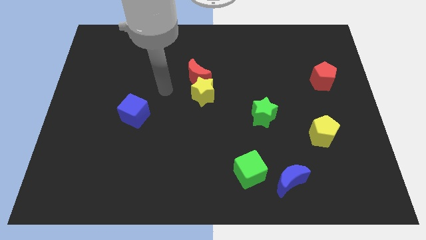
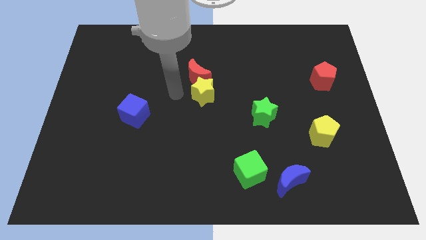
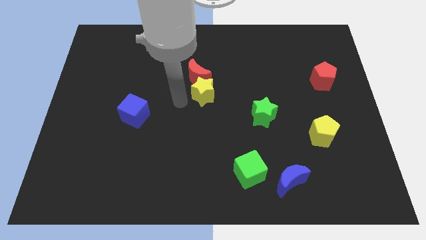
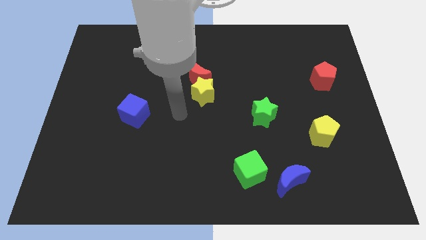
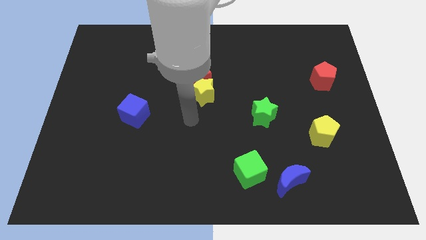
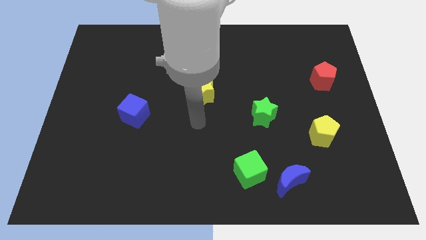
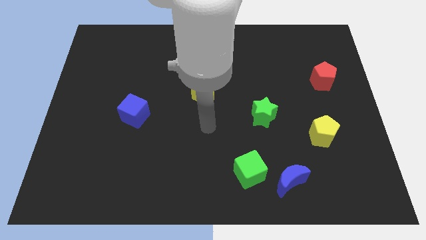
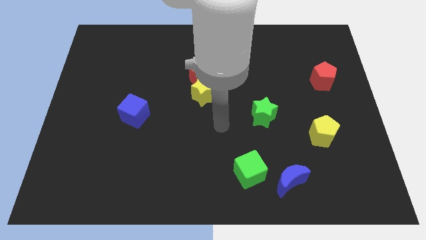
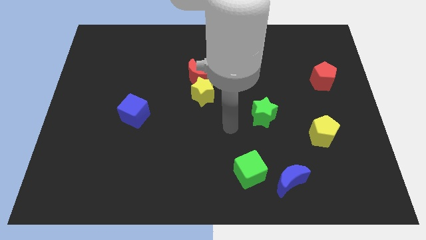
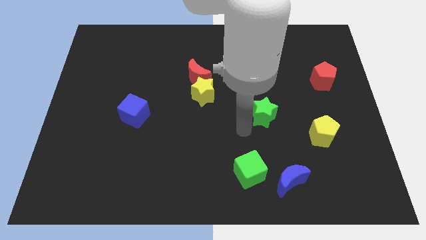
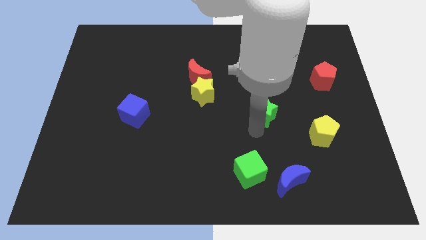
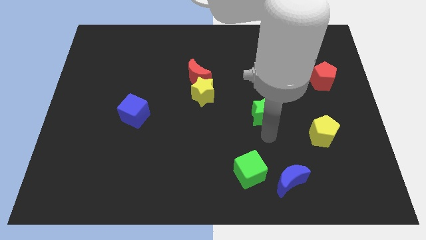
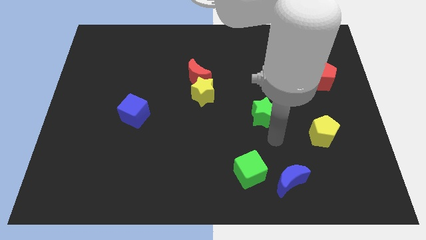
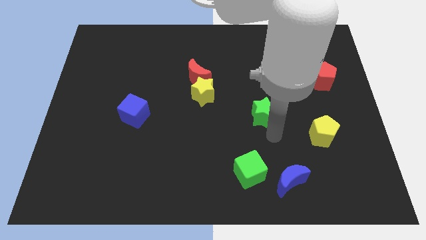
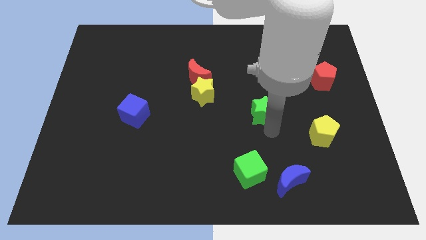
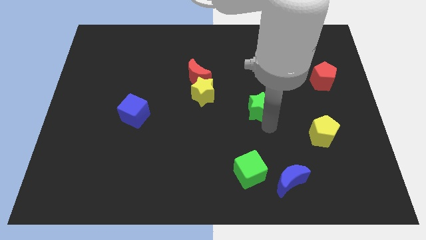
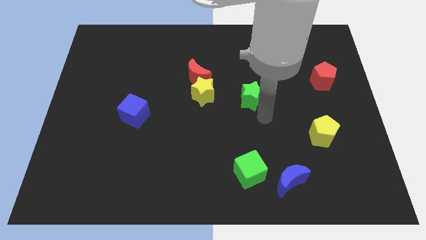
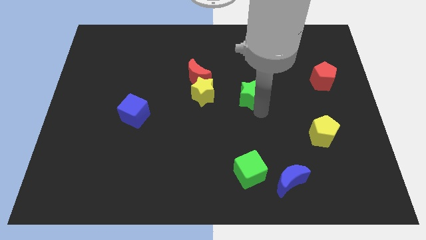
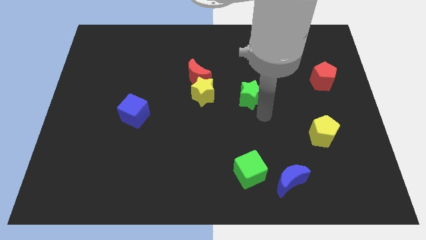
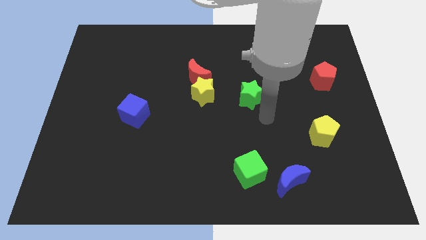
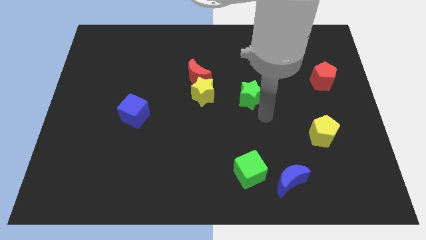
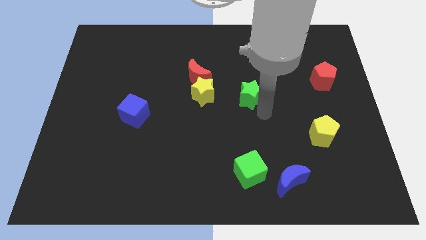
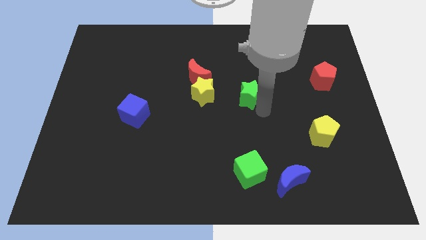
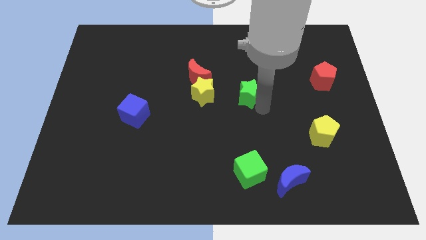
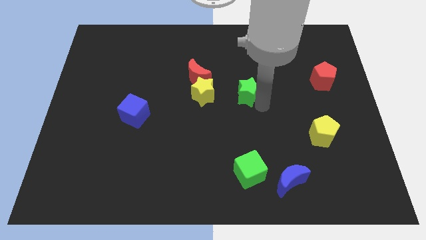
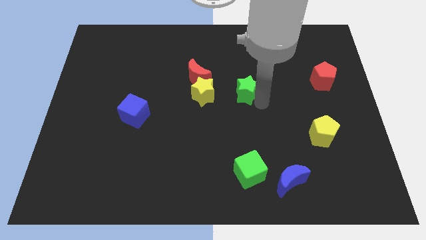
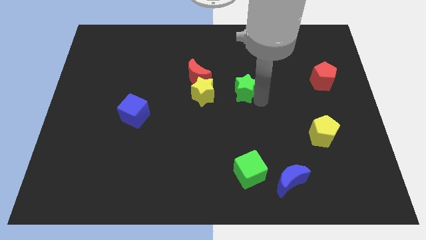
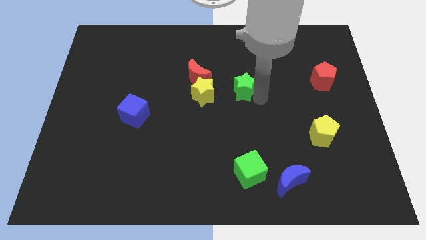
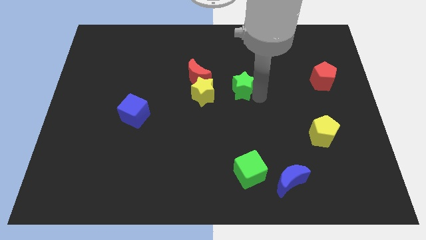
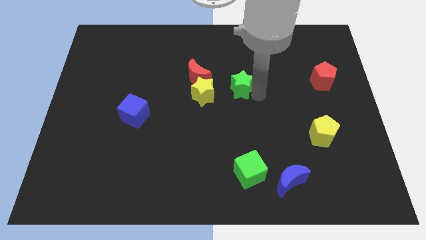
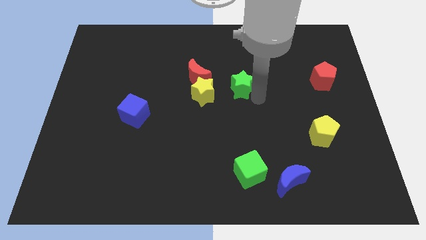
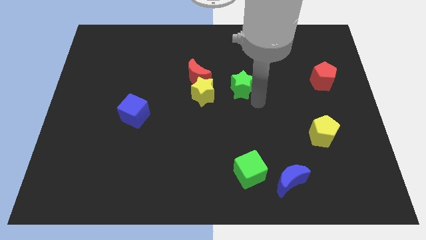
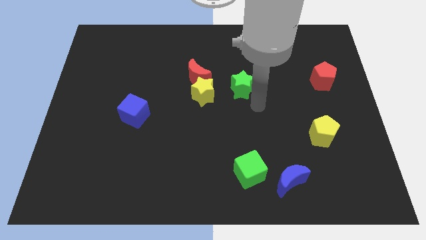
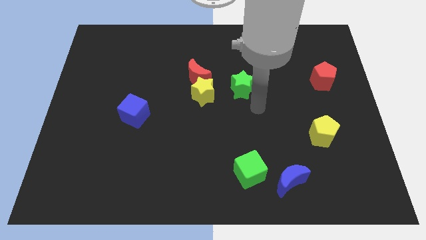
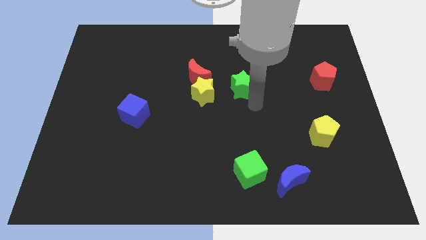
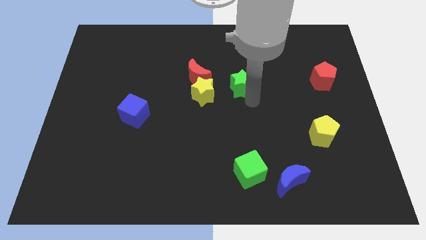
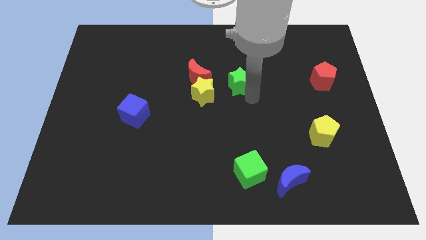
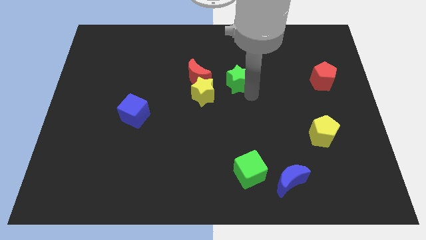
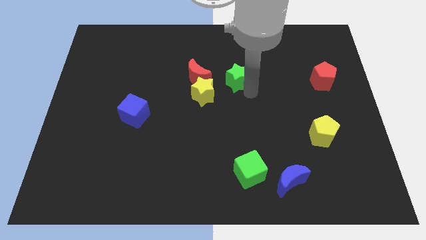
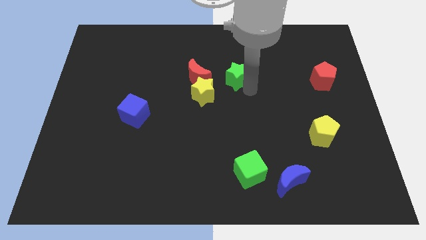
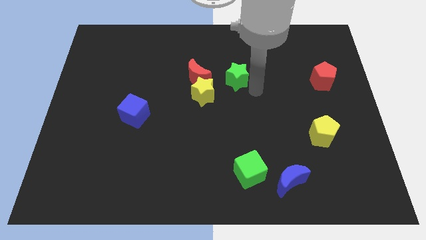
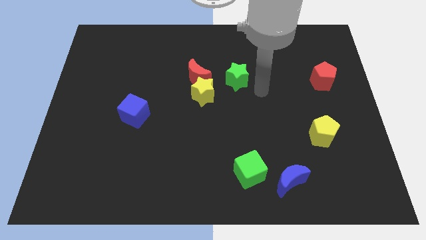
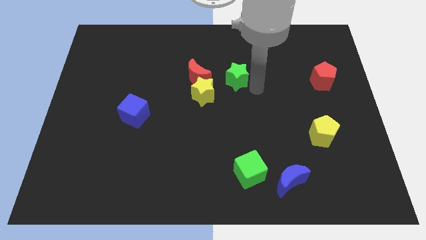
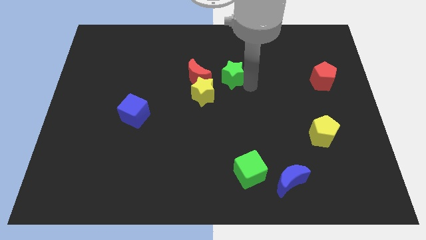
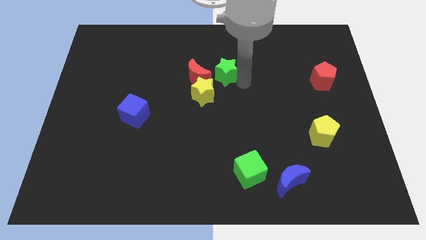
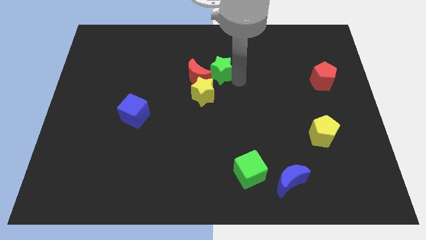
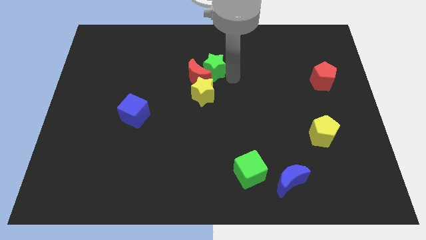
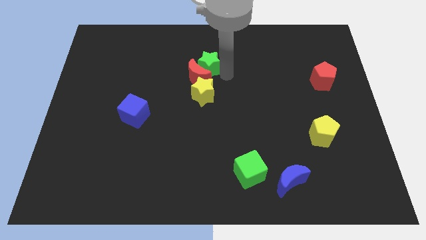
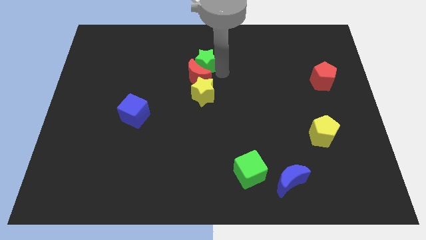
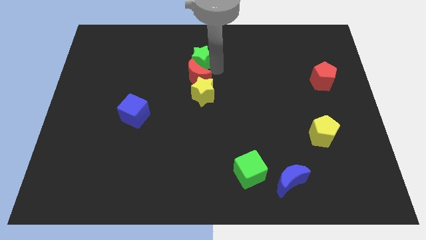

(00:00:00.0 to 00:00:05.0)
put the green star to the top left side of the red moon

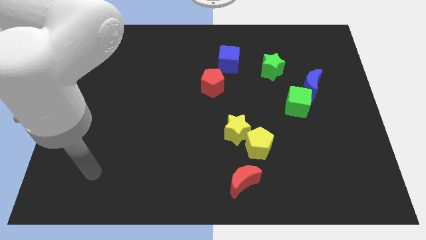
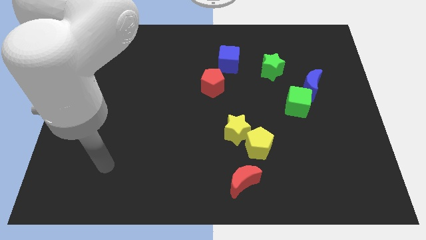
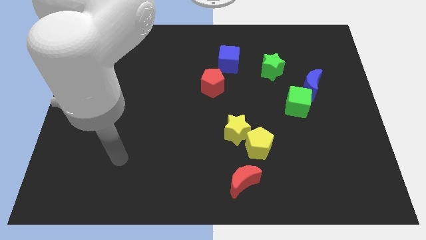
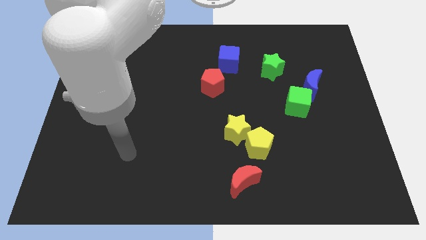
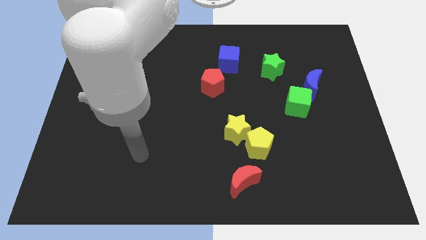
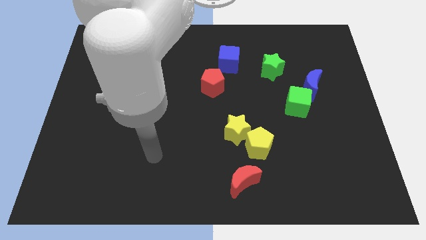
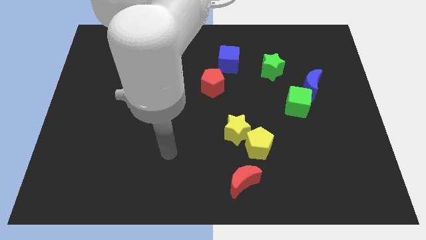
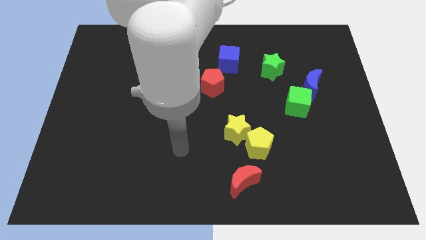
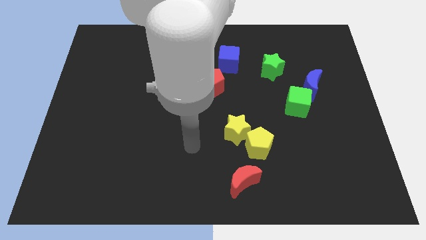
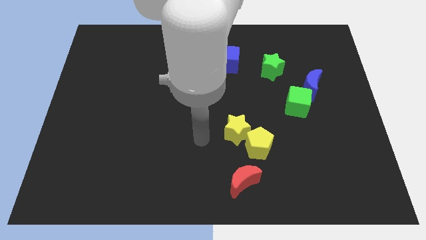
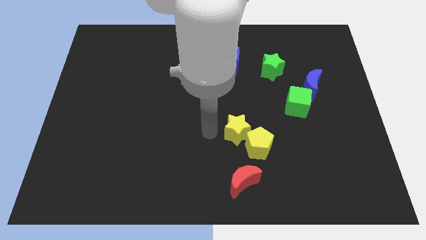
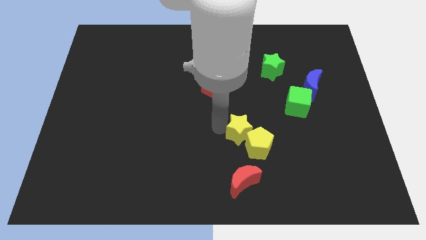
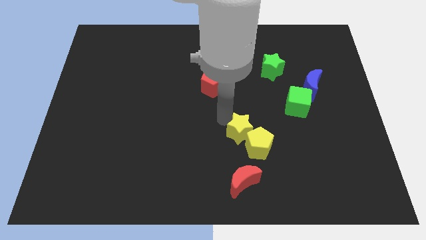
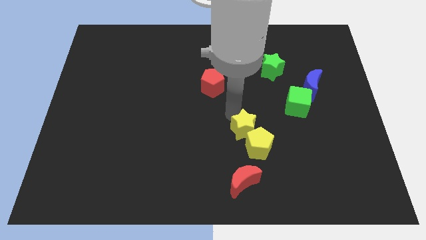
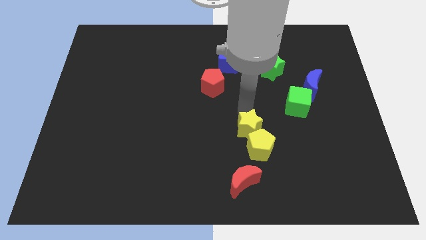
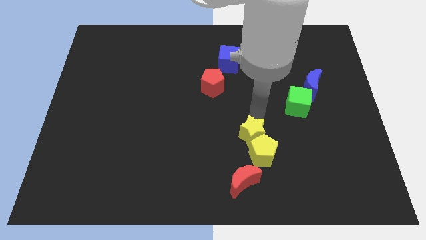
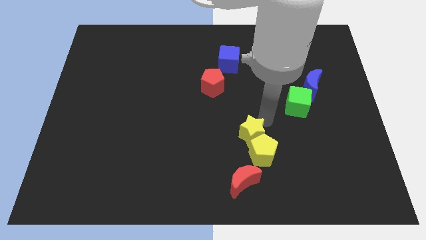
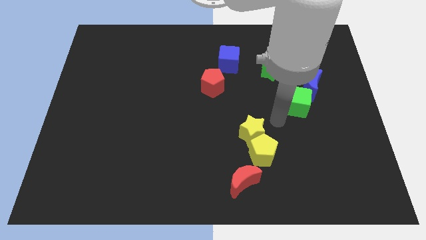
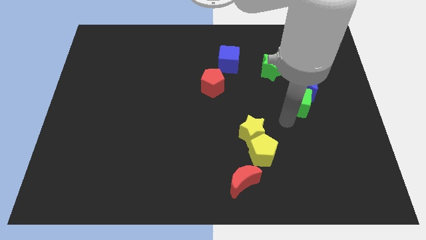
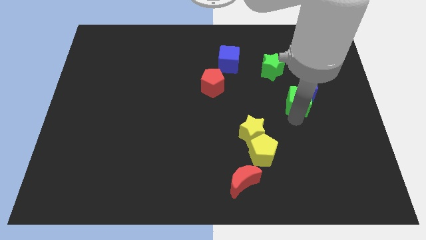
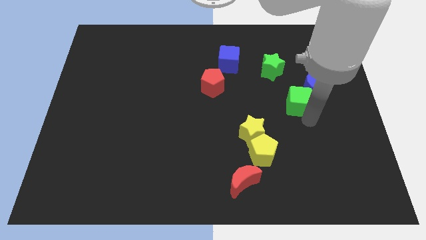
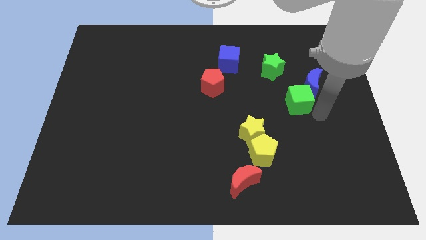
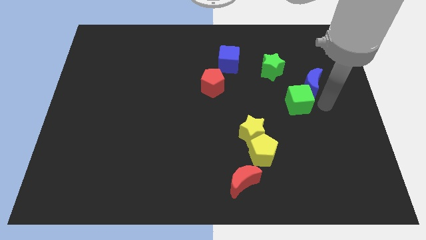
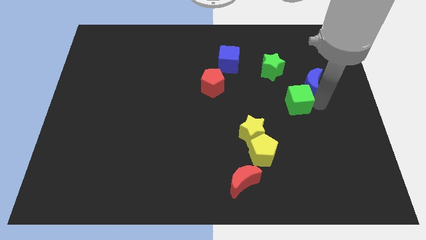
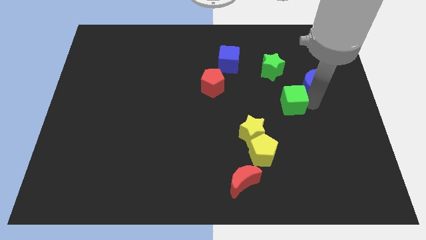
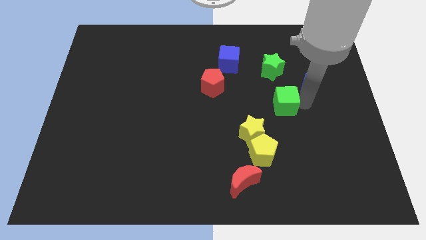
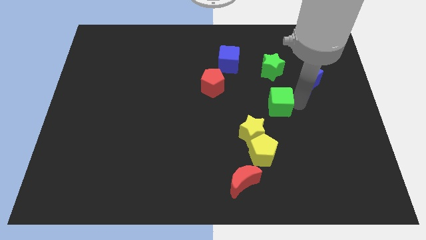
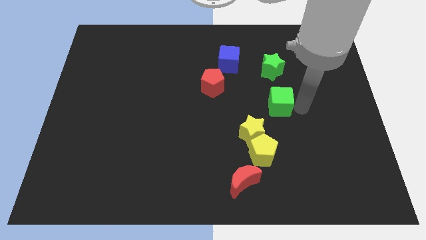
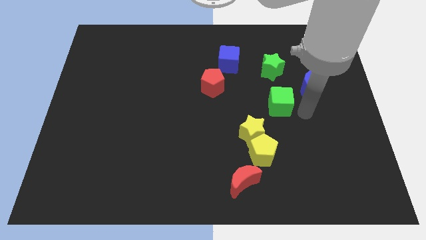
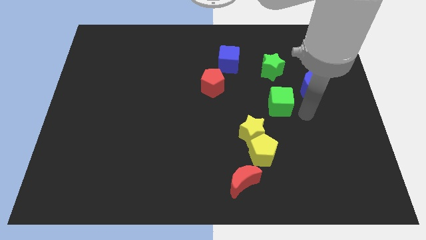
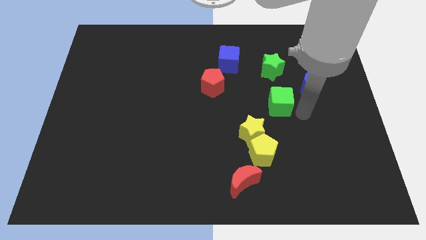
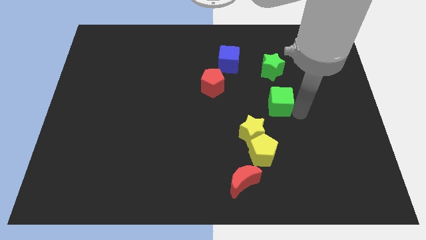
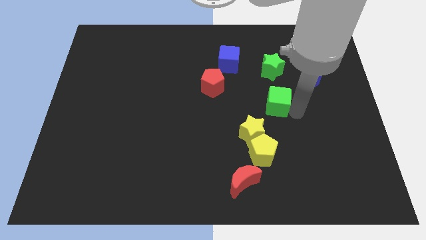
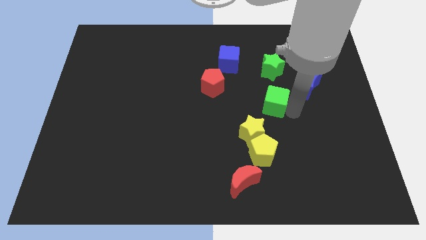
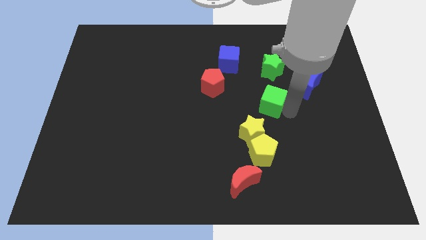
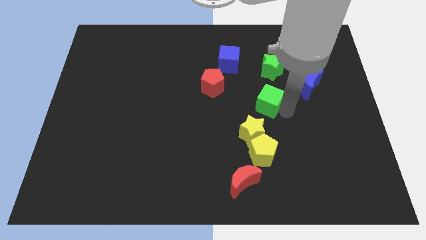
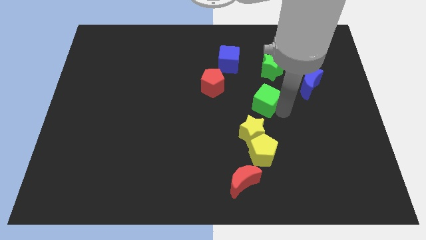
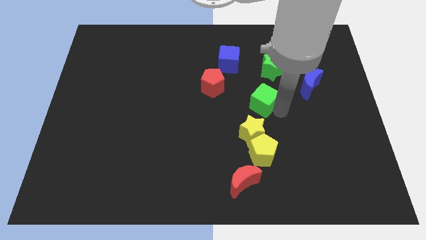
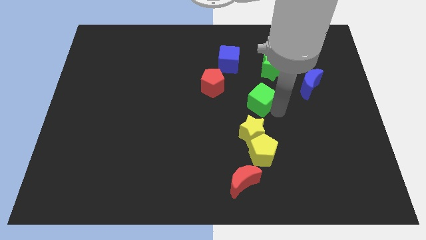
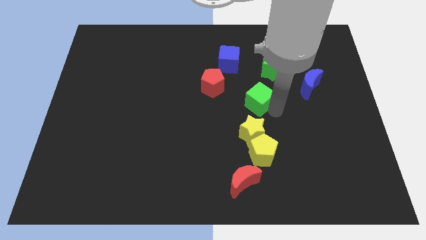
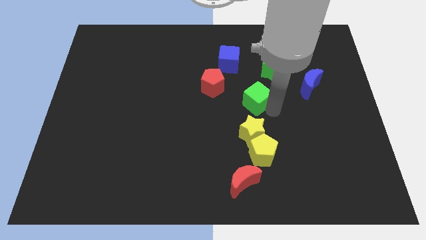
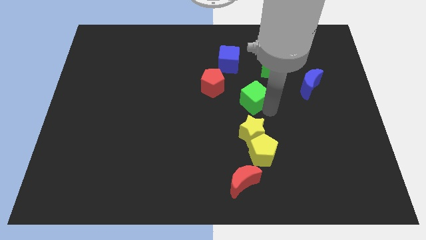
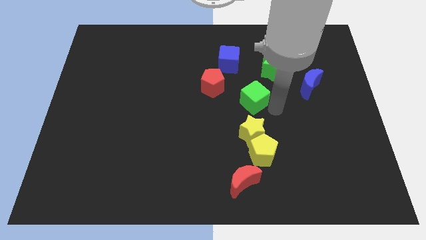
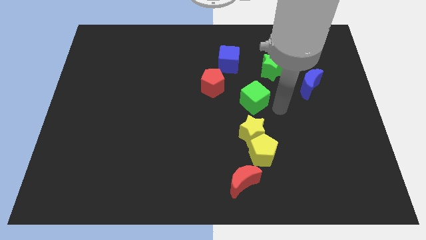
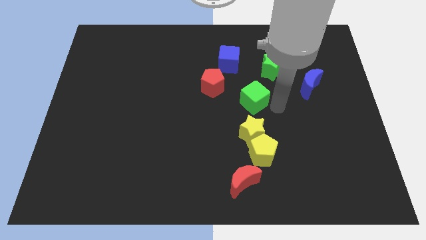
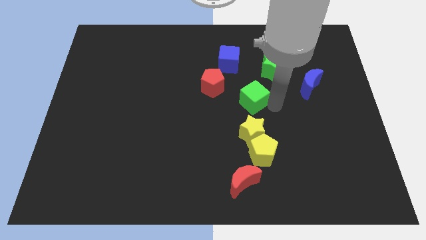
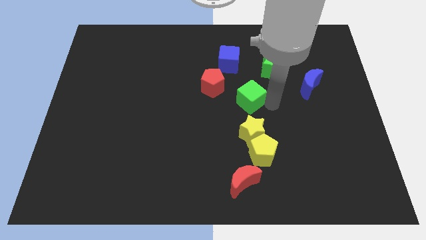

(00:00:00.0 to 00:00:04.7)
slide the green cube to the bottom of the blue cube
